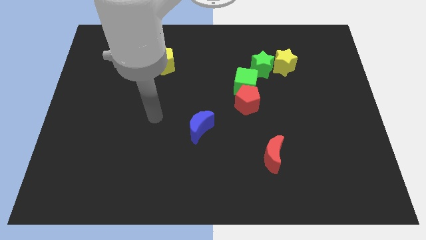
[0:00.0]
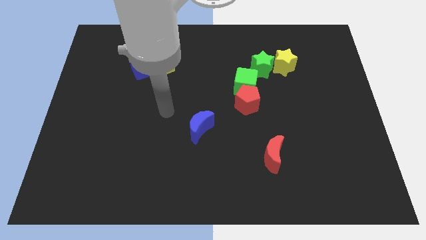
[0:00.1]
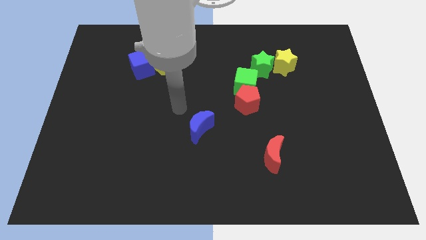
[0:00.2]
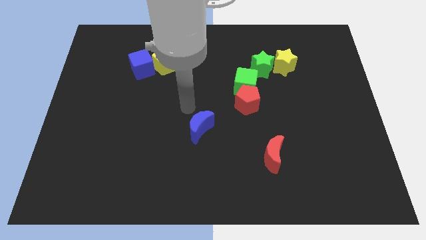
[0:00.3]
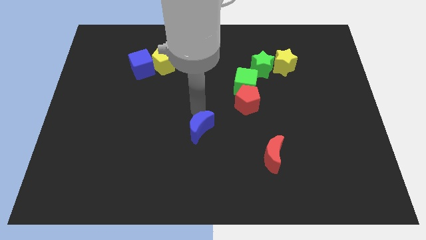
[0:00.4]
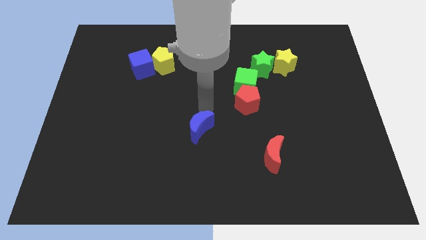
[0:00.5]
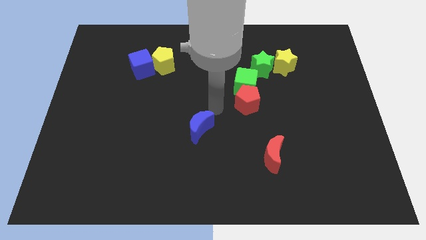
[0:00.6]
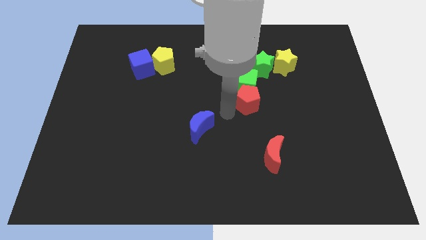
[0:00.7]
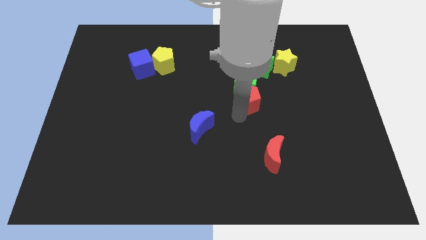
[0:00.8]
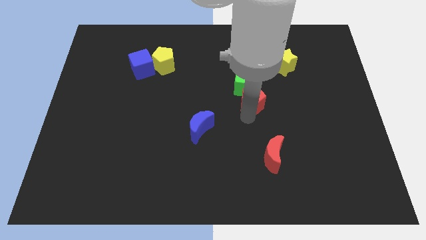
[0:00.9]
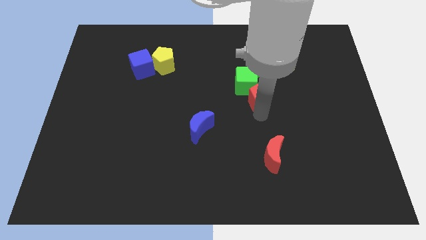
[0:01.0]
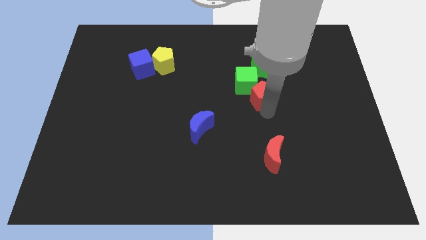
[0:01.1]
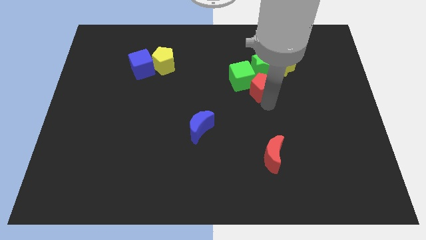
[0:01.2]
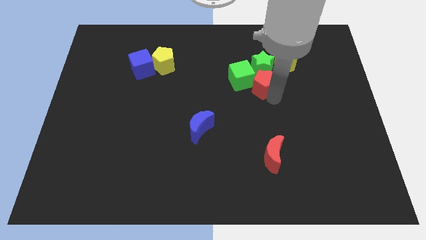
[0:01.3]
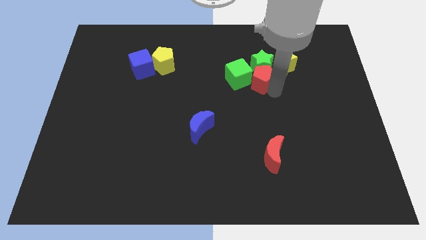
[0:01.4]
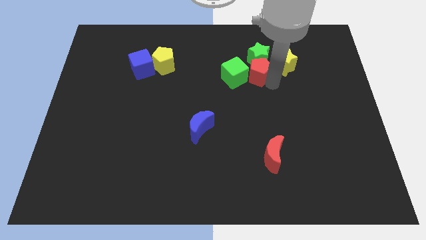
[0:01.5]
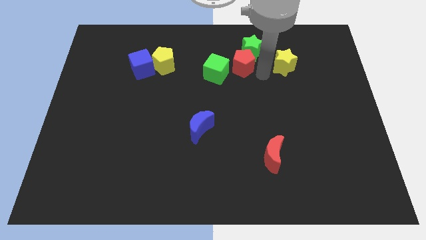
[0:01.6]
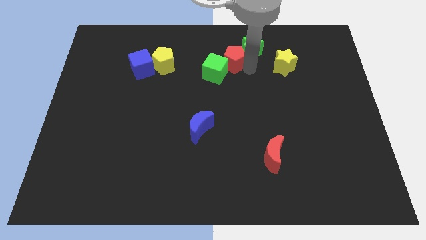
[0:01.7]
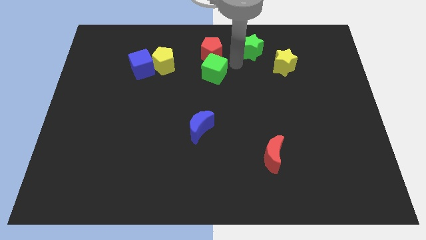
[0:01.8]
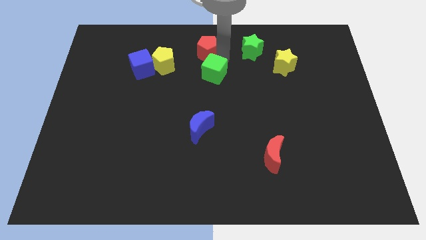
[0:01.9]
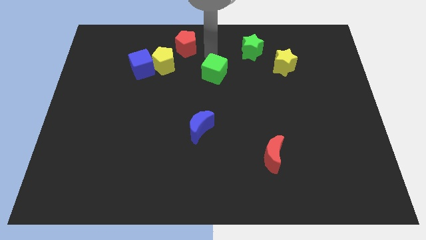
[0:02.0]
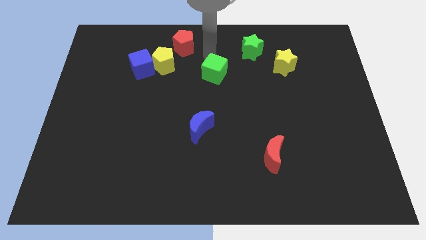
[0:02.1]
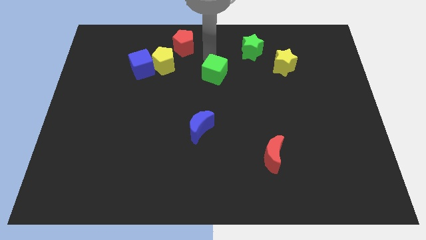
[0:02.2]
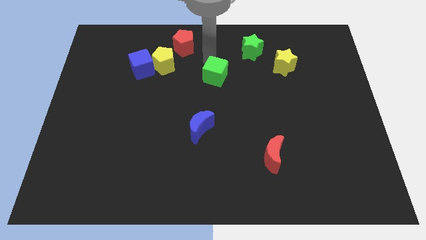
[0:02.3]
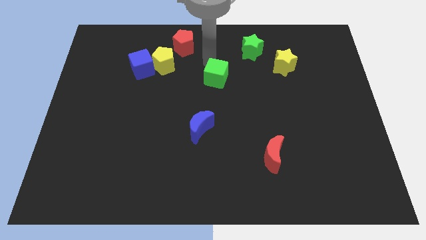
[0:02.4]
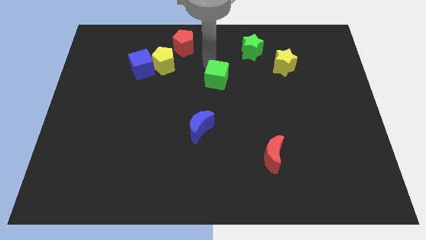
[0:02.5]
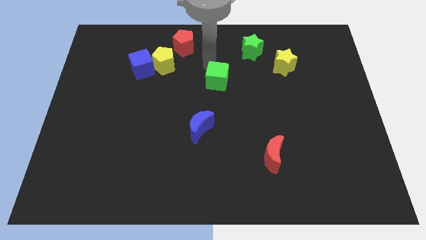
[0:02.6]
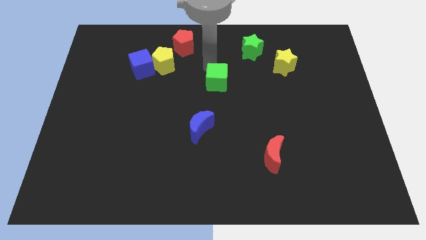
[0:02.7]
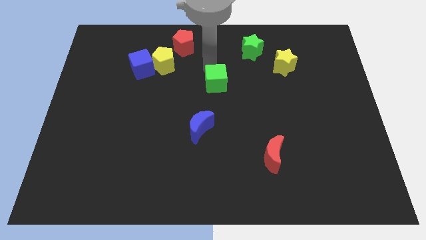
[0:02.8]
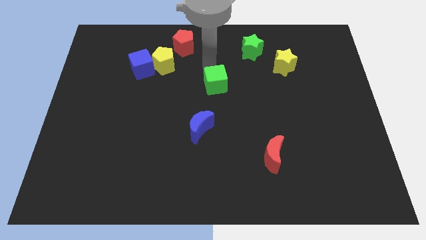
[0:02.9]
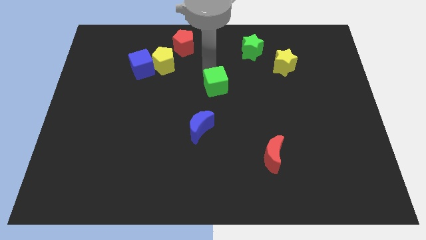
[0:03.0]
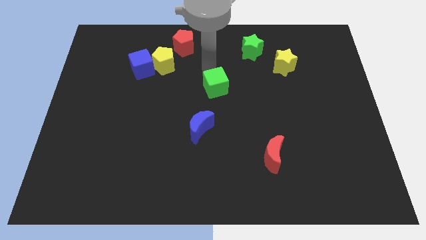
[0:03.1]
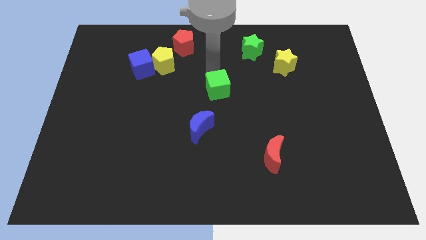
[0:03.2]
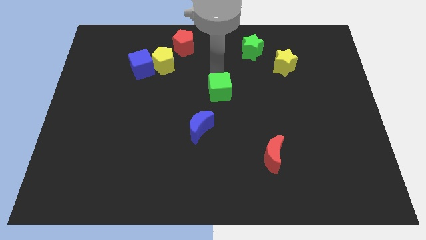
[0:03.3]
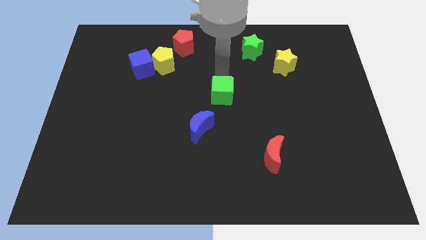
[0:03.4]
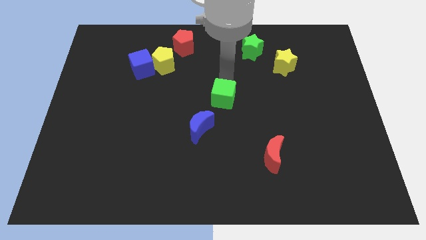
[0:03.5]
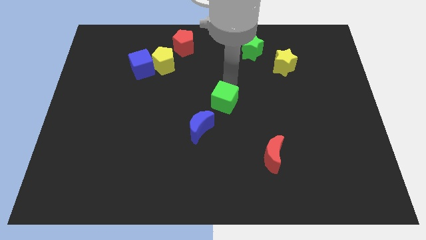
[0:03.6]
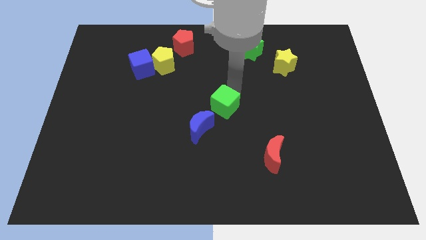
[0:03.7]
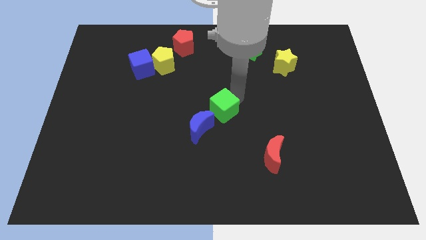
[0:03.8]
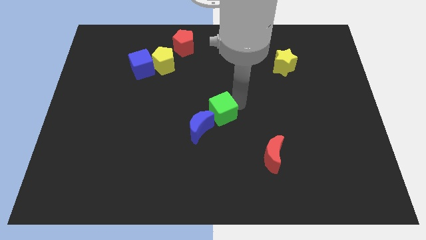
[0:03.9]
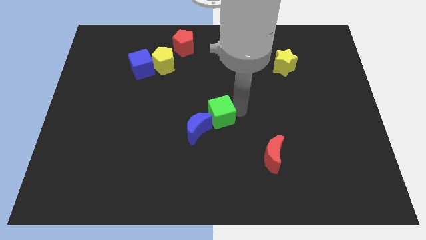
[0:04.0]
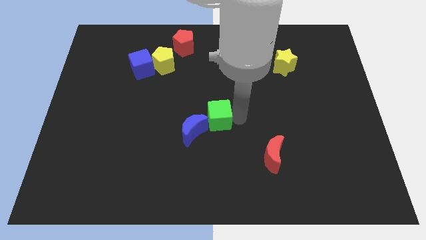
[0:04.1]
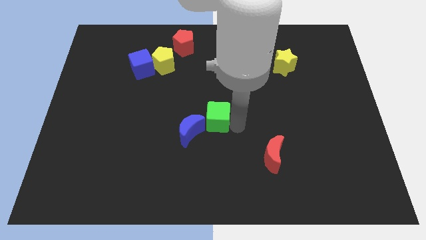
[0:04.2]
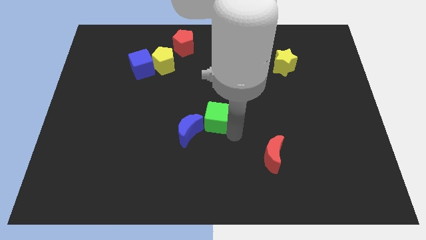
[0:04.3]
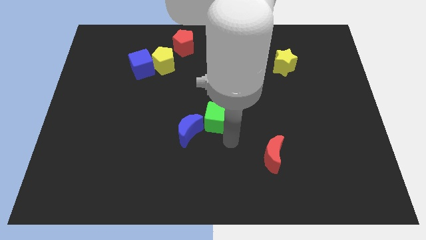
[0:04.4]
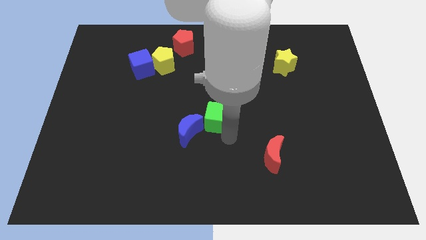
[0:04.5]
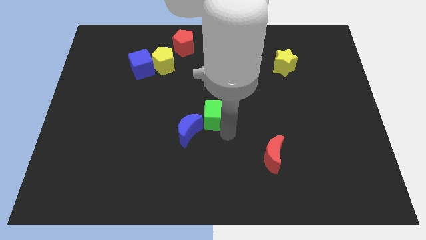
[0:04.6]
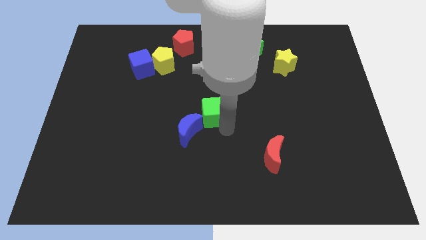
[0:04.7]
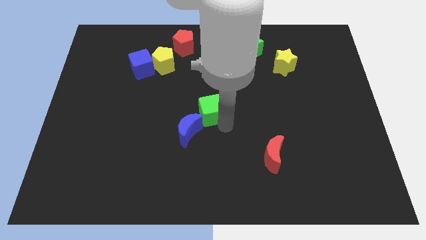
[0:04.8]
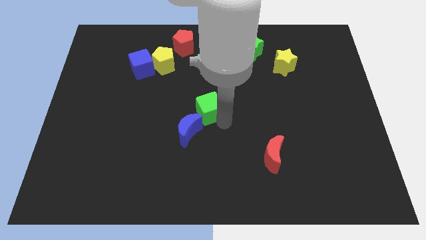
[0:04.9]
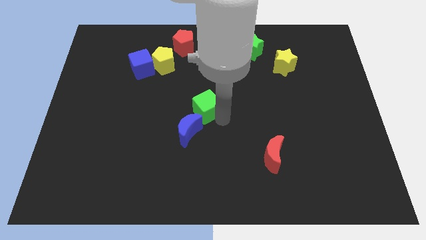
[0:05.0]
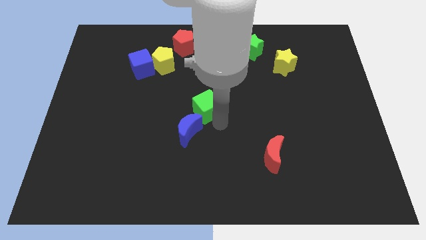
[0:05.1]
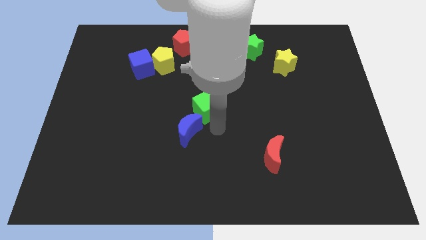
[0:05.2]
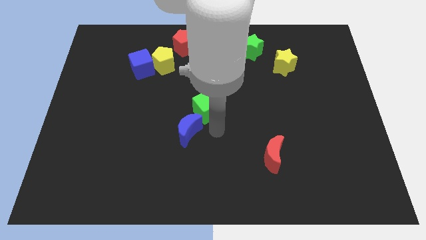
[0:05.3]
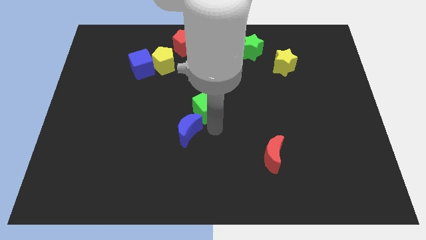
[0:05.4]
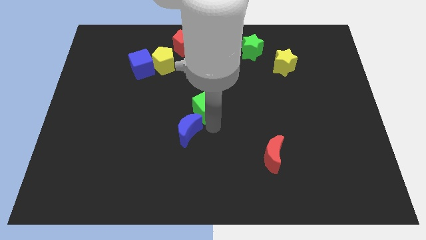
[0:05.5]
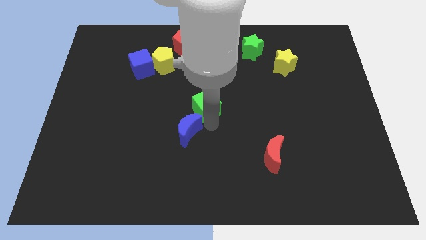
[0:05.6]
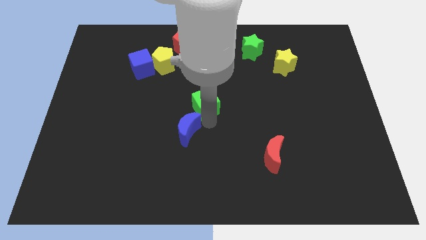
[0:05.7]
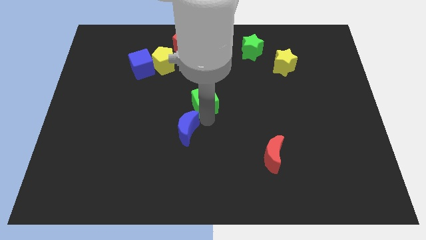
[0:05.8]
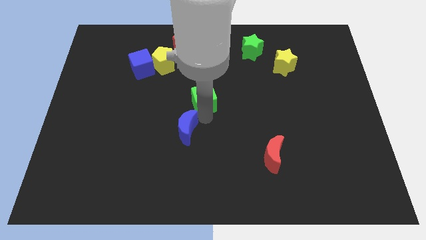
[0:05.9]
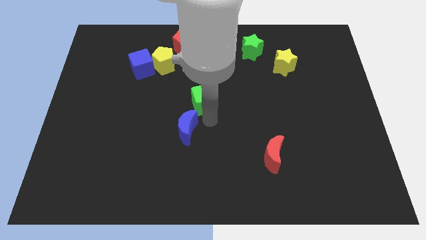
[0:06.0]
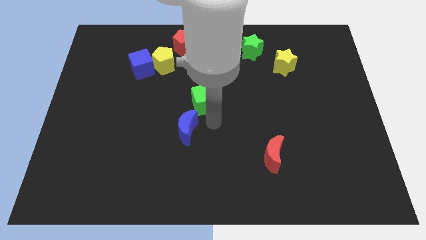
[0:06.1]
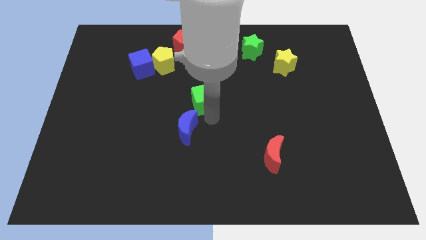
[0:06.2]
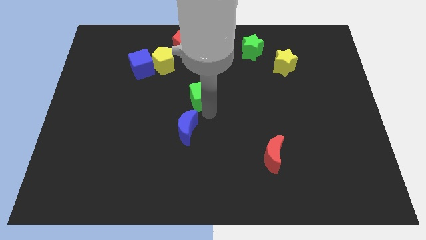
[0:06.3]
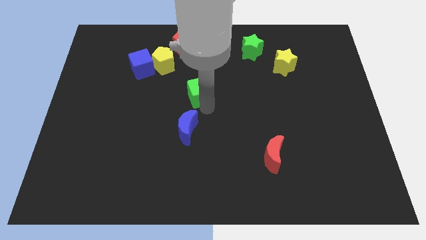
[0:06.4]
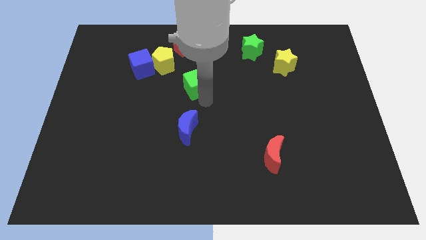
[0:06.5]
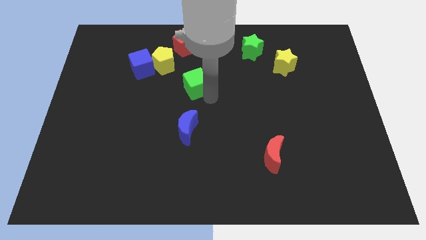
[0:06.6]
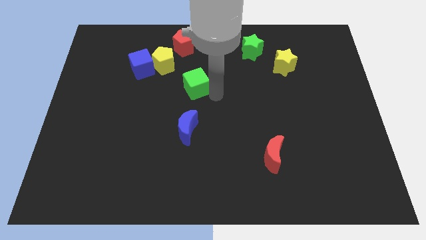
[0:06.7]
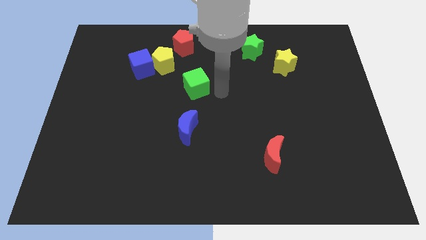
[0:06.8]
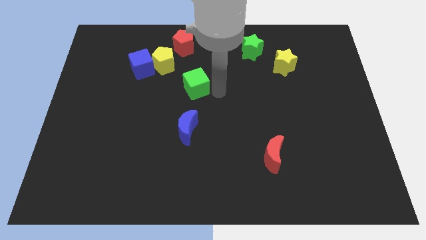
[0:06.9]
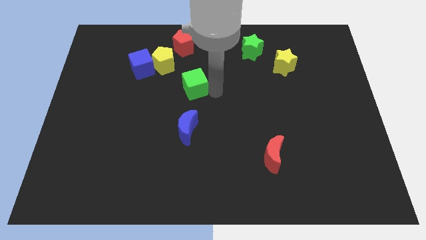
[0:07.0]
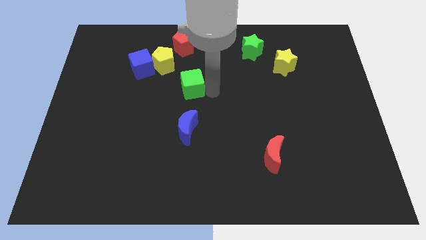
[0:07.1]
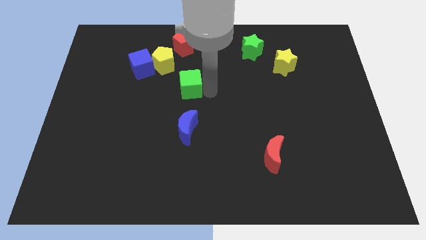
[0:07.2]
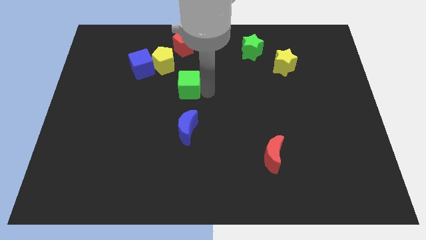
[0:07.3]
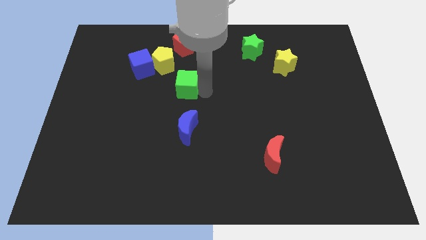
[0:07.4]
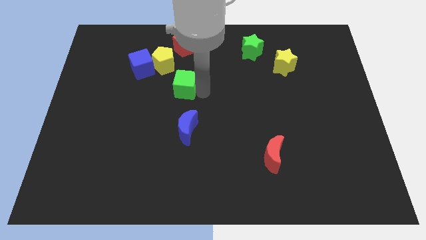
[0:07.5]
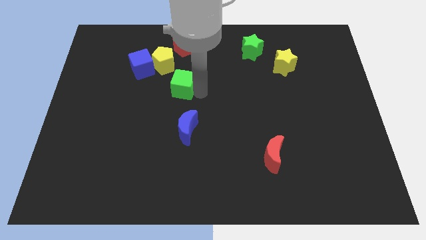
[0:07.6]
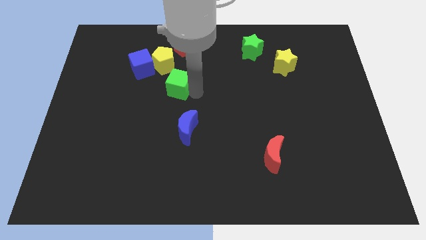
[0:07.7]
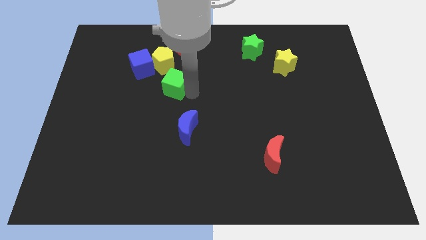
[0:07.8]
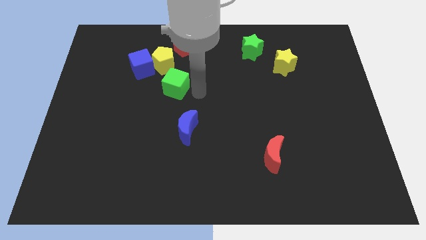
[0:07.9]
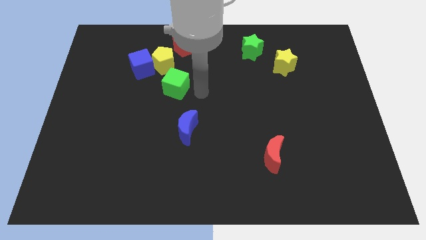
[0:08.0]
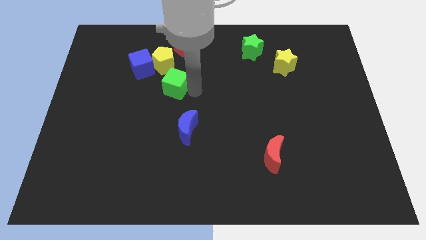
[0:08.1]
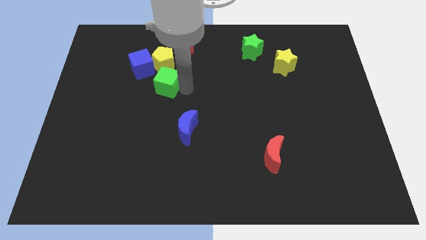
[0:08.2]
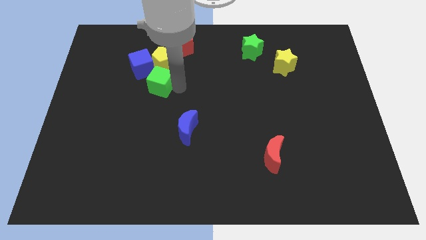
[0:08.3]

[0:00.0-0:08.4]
move the green cube to the bottom left of the yellow pentagon
